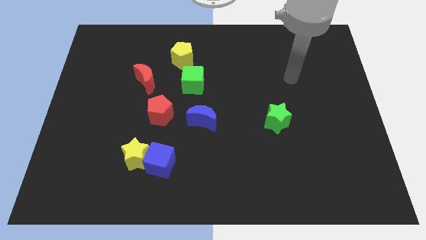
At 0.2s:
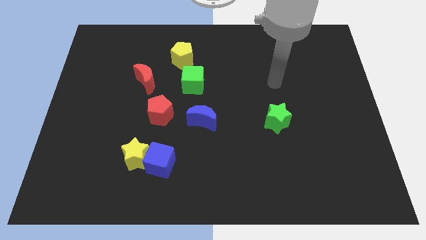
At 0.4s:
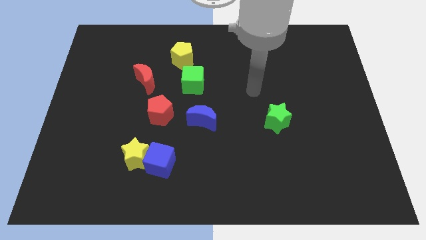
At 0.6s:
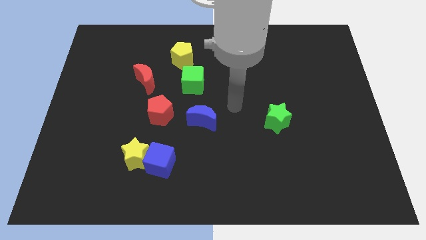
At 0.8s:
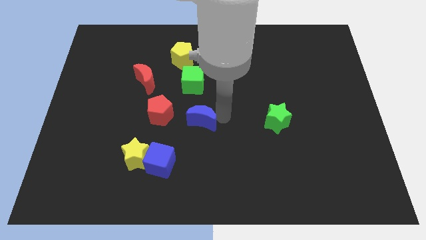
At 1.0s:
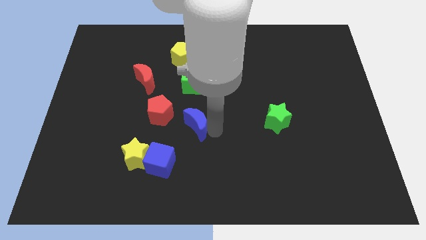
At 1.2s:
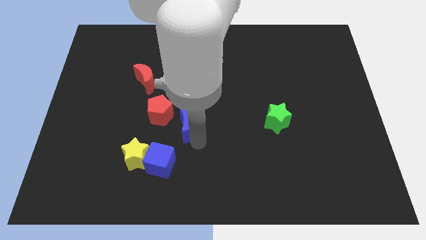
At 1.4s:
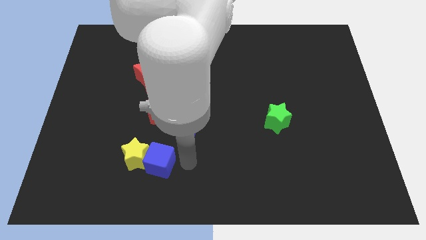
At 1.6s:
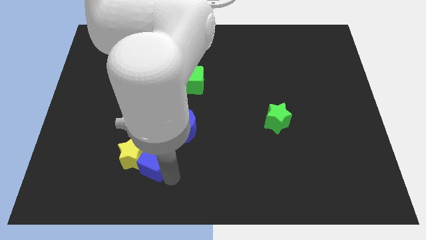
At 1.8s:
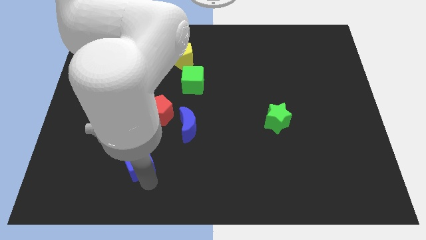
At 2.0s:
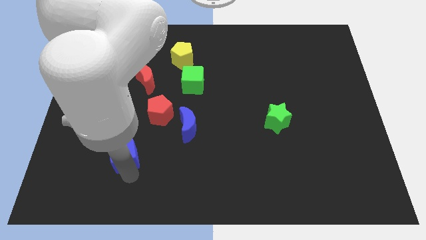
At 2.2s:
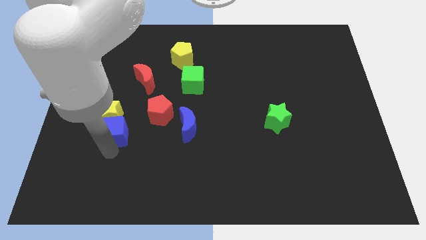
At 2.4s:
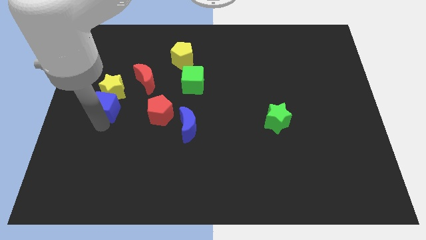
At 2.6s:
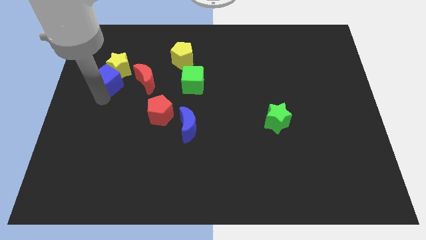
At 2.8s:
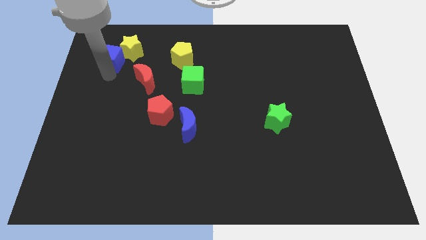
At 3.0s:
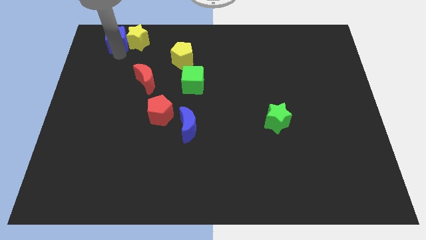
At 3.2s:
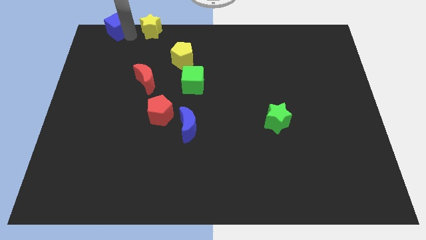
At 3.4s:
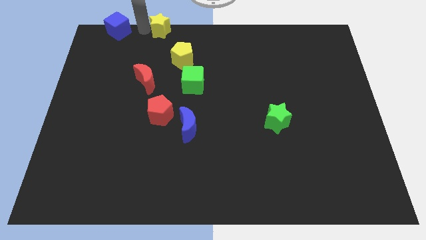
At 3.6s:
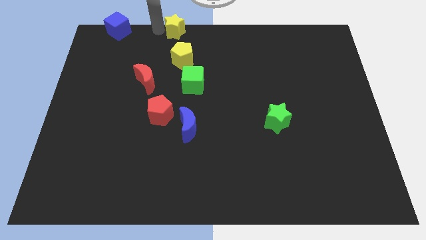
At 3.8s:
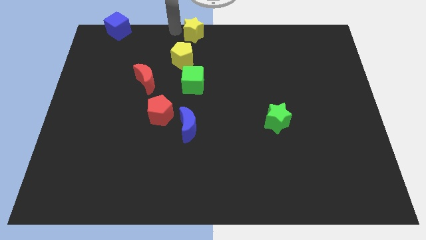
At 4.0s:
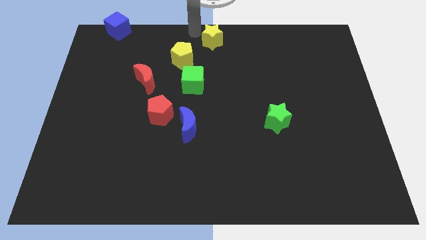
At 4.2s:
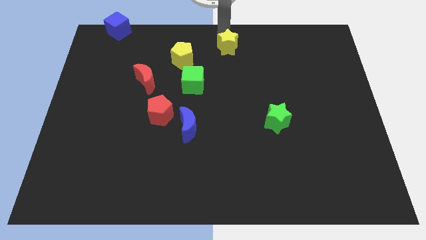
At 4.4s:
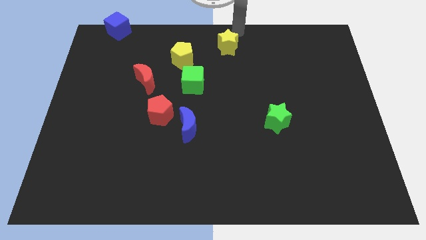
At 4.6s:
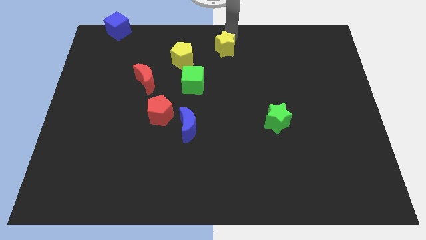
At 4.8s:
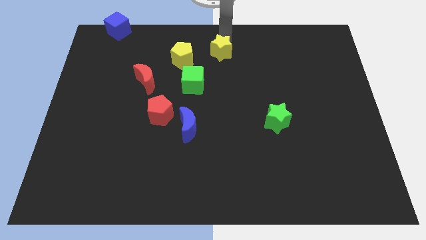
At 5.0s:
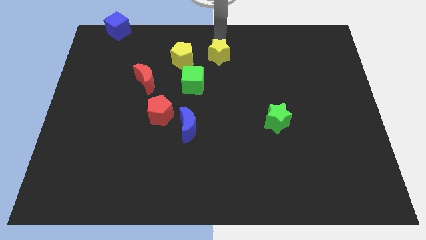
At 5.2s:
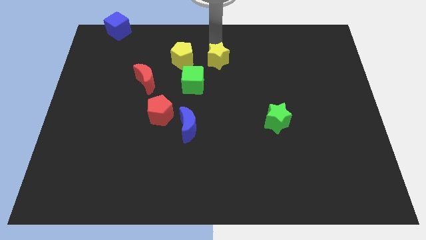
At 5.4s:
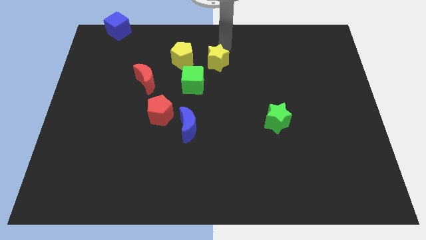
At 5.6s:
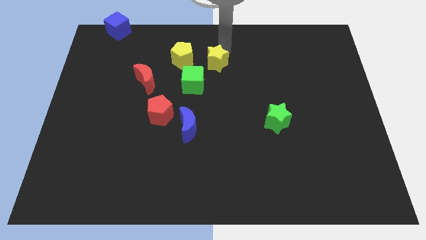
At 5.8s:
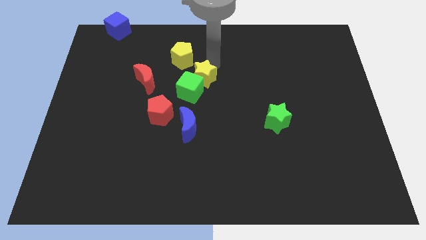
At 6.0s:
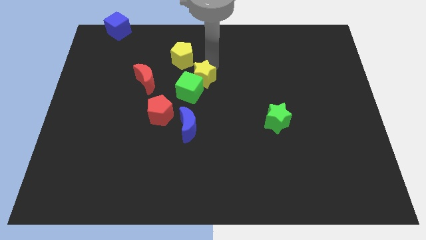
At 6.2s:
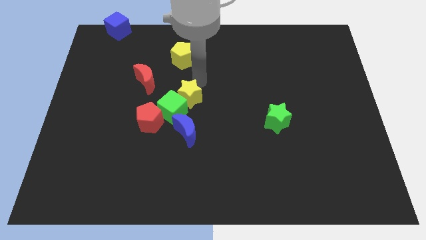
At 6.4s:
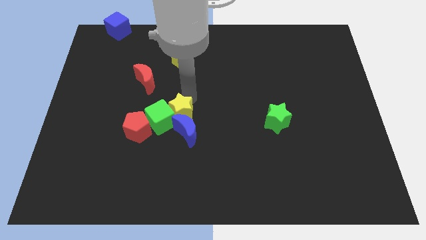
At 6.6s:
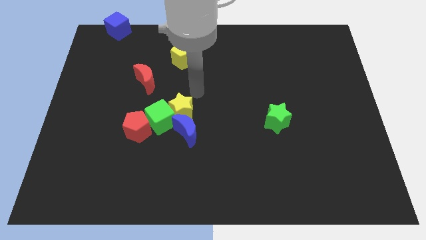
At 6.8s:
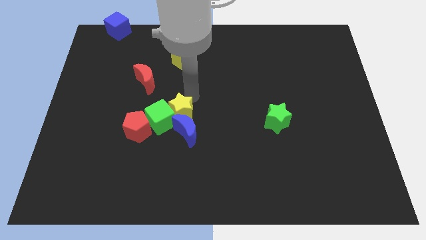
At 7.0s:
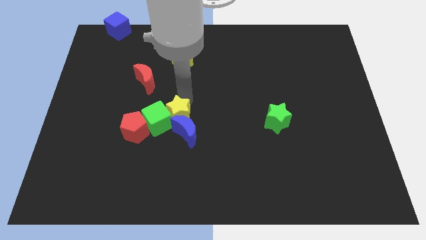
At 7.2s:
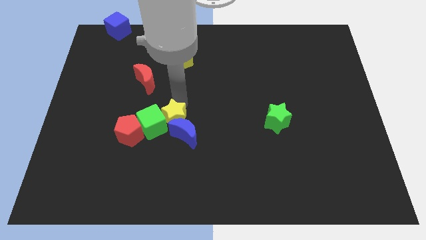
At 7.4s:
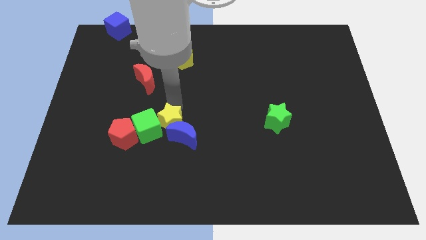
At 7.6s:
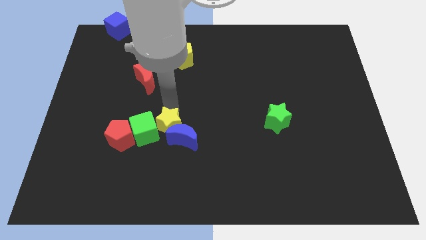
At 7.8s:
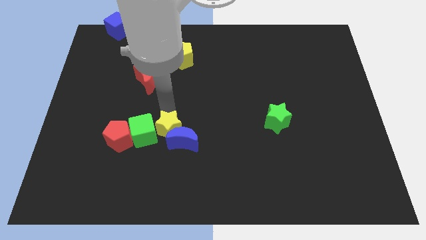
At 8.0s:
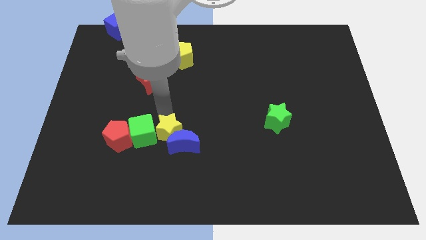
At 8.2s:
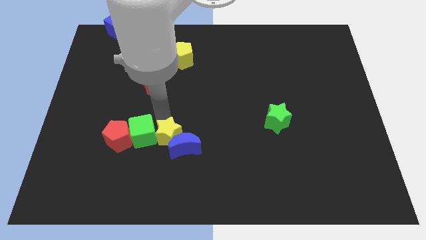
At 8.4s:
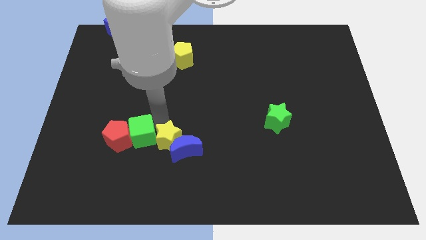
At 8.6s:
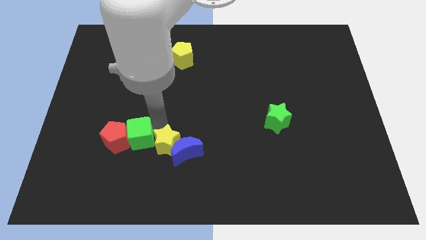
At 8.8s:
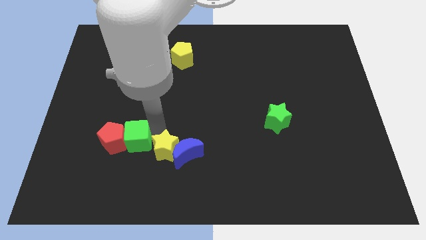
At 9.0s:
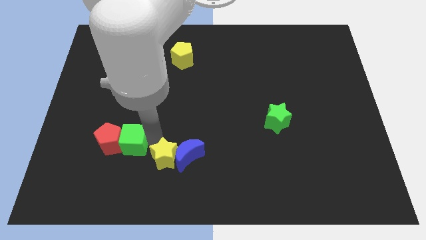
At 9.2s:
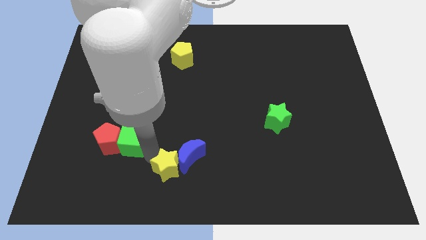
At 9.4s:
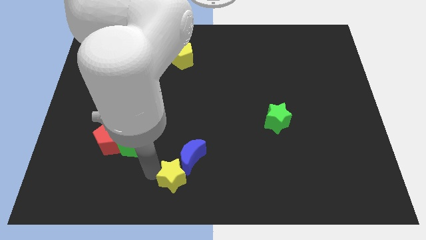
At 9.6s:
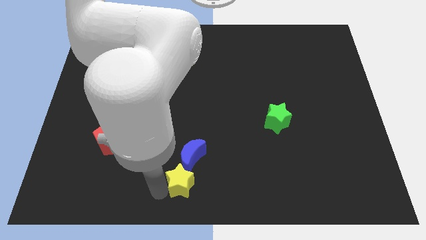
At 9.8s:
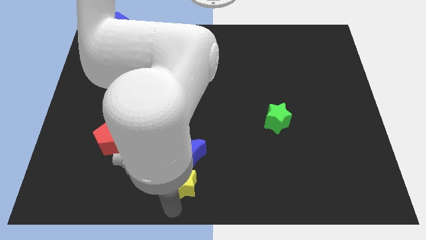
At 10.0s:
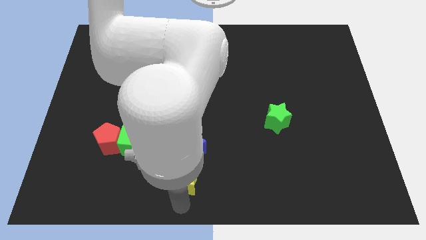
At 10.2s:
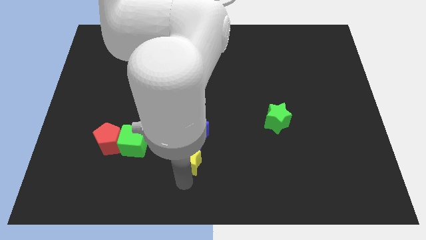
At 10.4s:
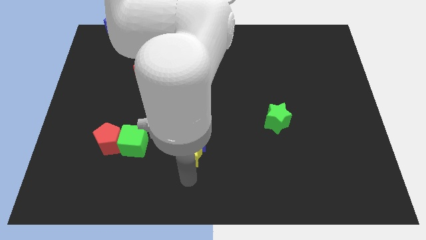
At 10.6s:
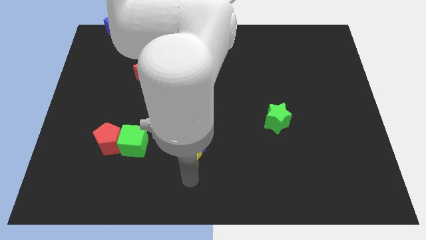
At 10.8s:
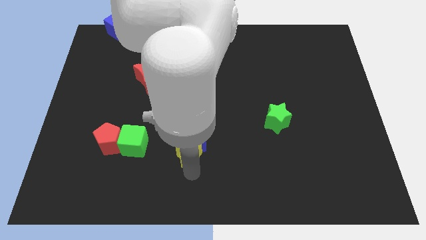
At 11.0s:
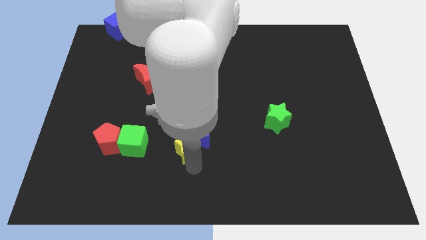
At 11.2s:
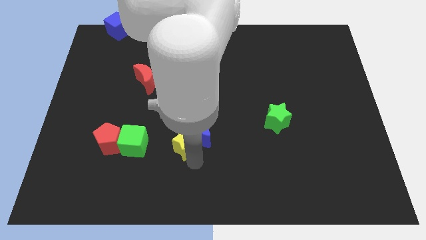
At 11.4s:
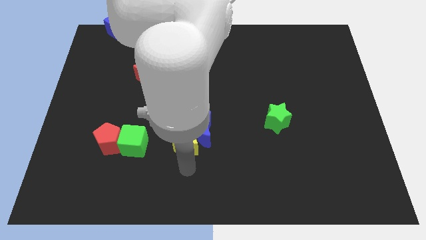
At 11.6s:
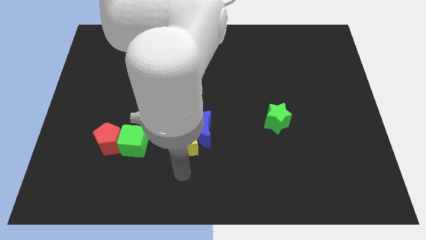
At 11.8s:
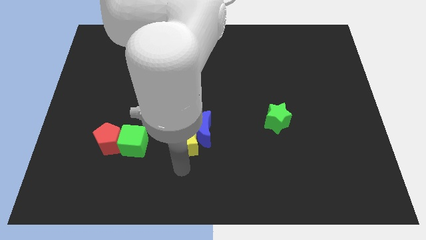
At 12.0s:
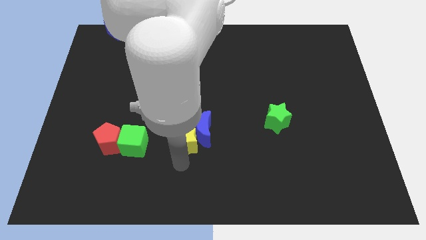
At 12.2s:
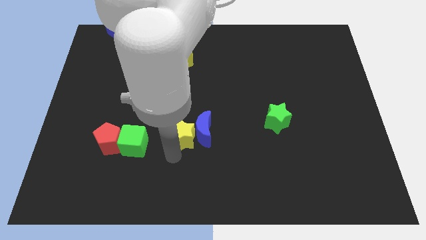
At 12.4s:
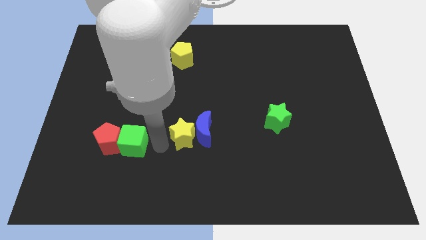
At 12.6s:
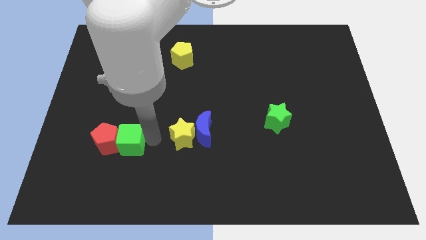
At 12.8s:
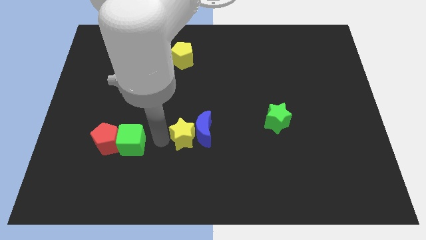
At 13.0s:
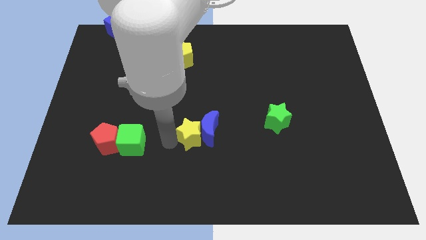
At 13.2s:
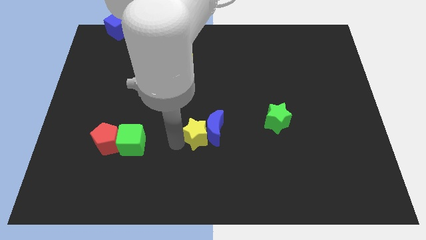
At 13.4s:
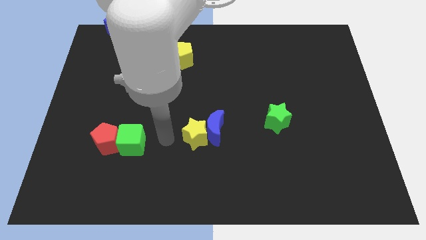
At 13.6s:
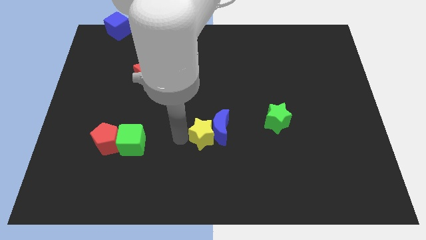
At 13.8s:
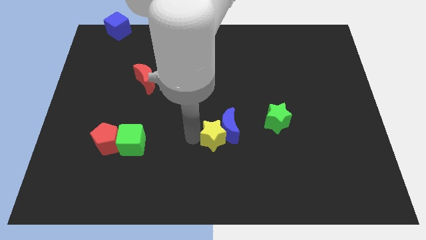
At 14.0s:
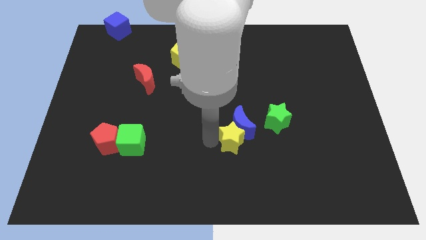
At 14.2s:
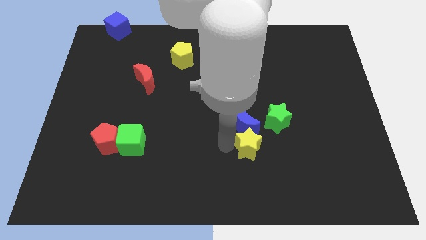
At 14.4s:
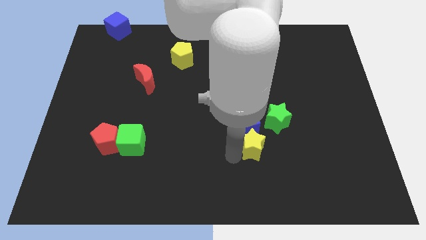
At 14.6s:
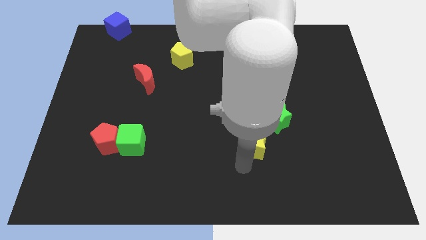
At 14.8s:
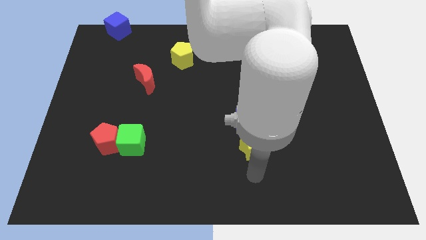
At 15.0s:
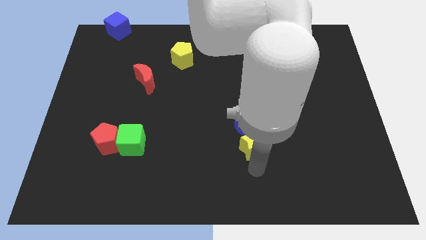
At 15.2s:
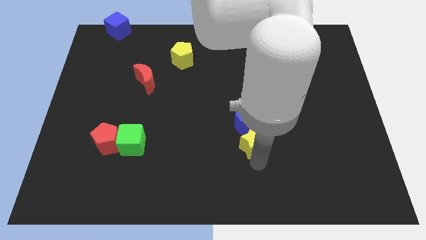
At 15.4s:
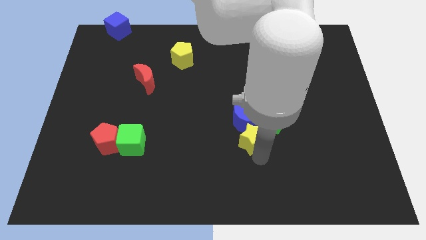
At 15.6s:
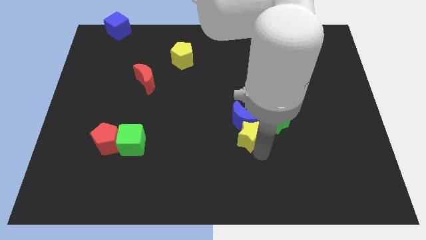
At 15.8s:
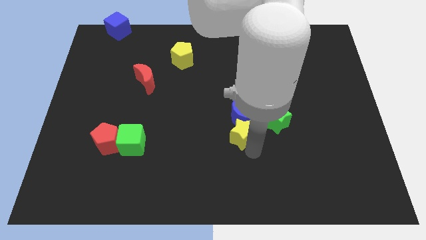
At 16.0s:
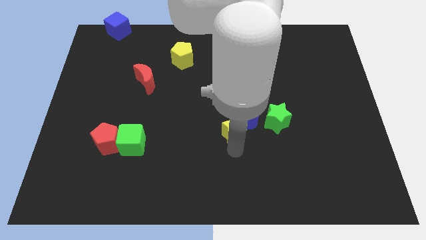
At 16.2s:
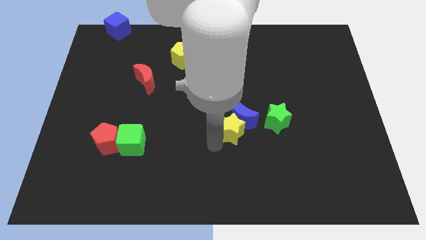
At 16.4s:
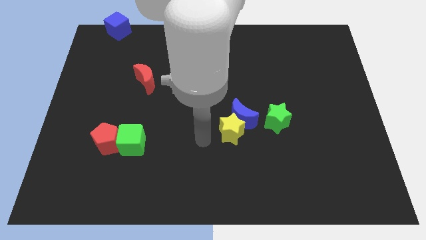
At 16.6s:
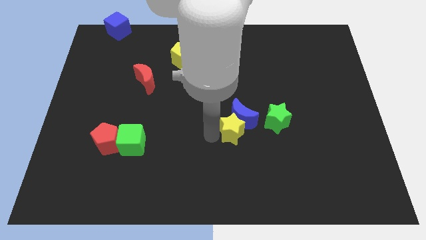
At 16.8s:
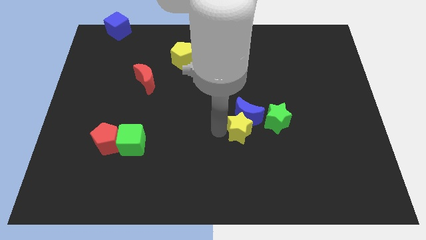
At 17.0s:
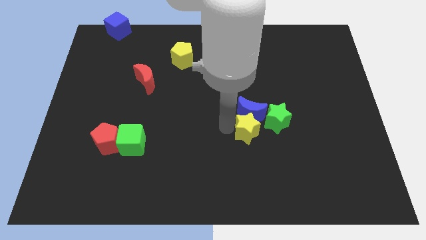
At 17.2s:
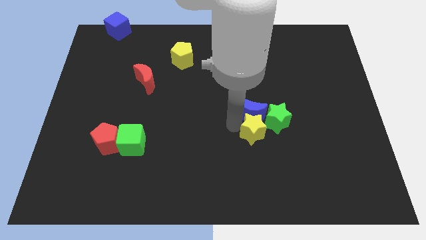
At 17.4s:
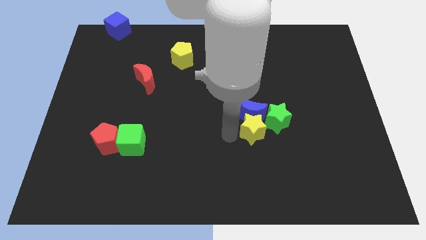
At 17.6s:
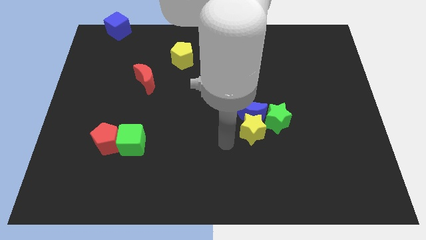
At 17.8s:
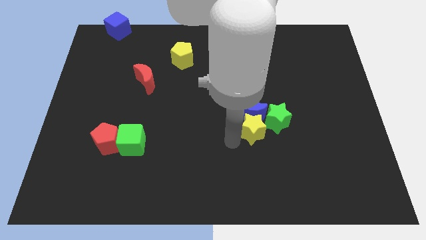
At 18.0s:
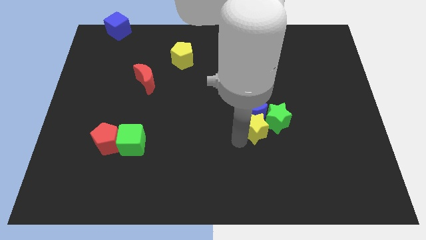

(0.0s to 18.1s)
put the yellow star next to the green star
